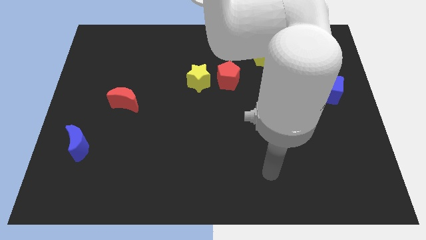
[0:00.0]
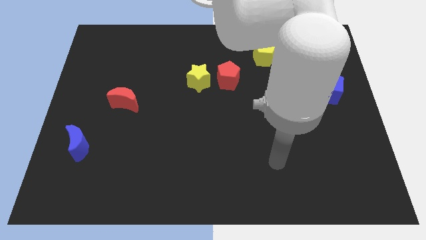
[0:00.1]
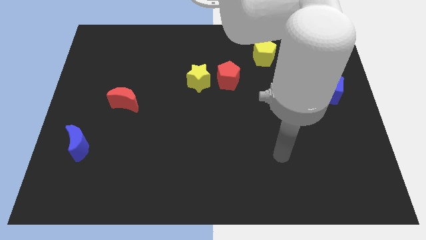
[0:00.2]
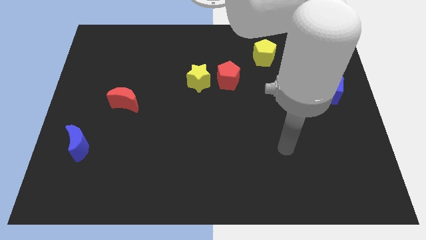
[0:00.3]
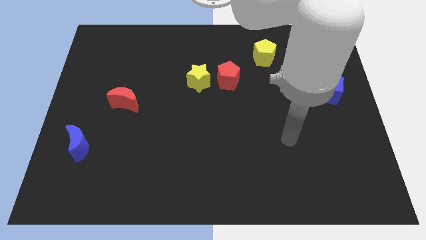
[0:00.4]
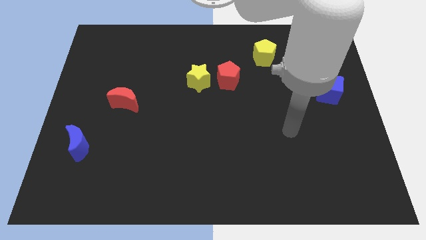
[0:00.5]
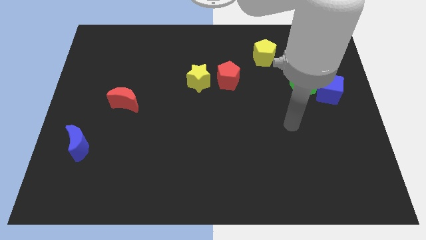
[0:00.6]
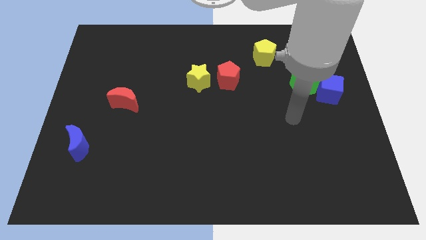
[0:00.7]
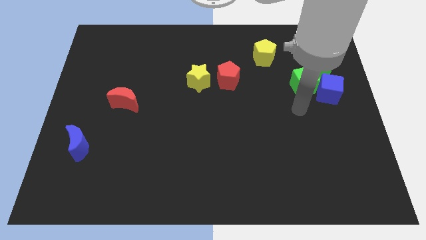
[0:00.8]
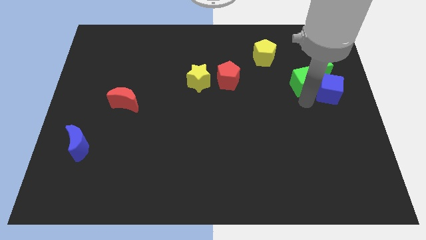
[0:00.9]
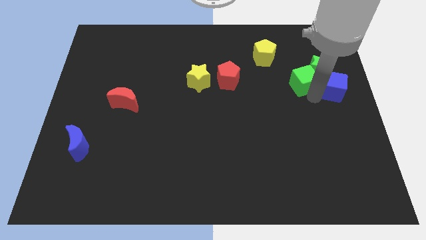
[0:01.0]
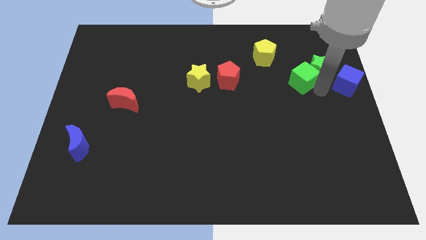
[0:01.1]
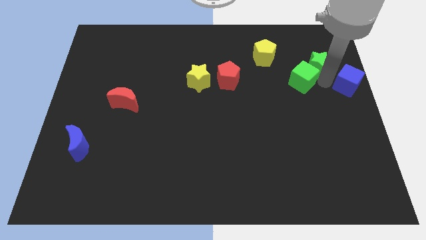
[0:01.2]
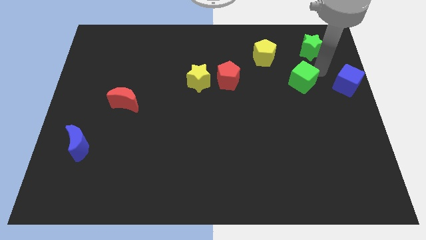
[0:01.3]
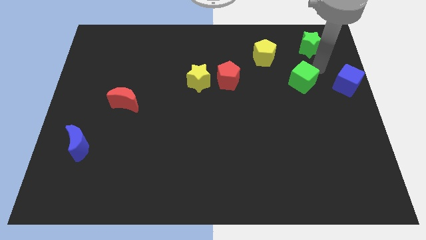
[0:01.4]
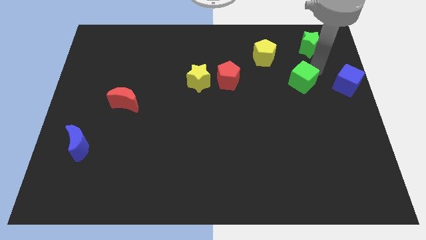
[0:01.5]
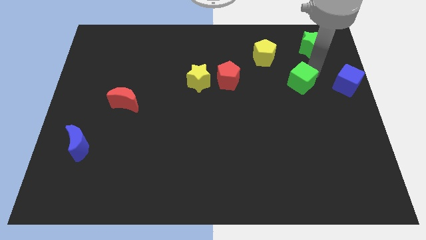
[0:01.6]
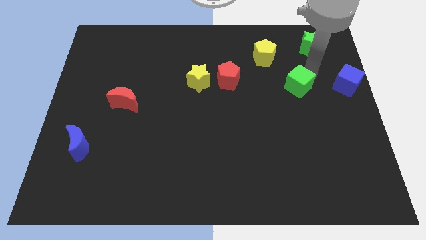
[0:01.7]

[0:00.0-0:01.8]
separate the green cube from the green star and blue cube

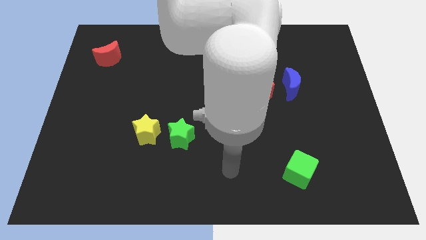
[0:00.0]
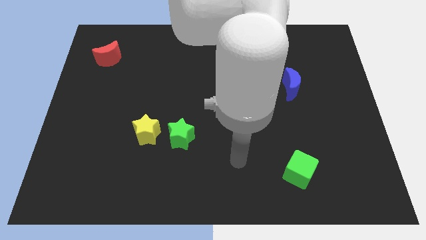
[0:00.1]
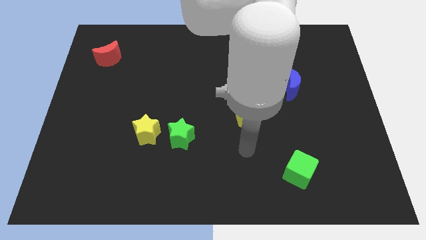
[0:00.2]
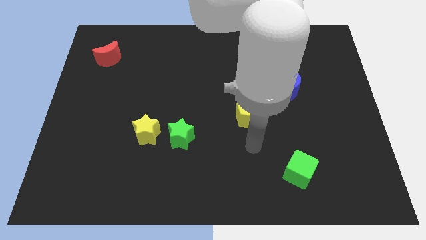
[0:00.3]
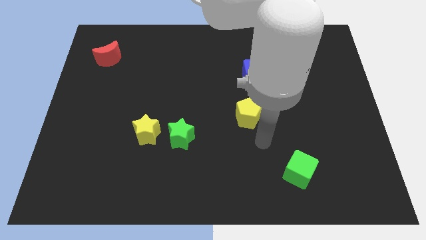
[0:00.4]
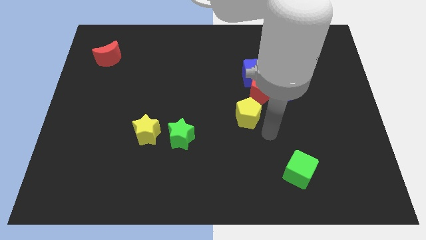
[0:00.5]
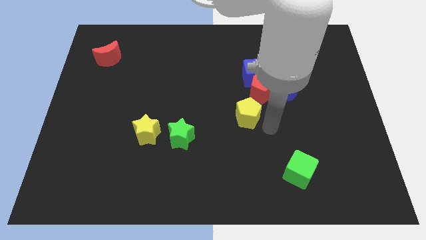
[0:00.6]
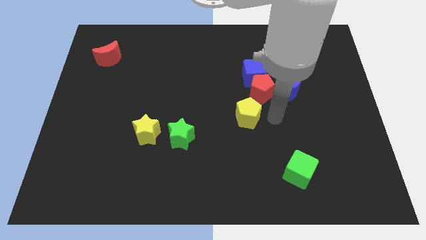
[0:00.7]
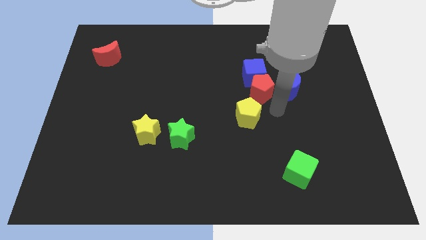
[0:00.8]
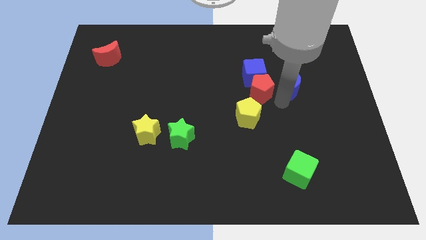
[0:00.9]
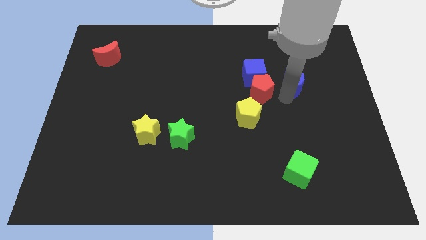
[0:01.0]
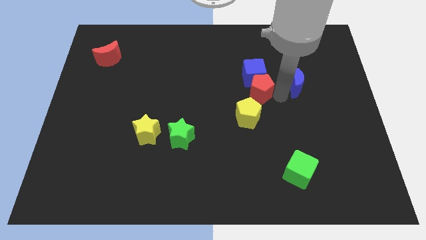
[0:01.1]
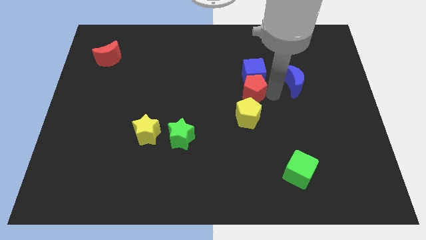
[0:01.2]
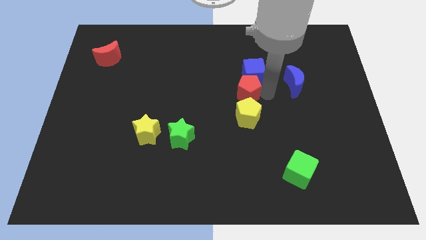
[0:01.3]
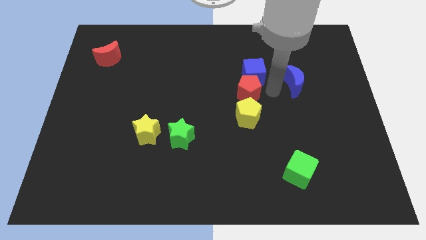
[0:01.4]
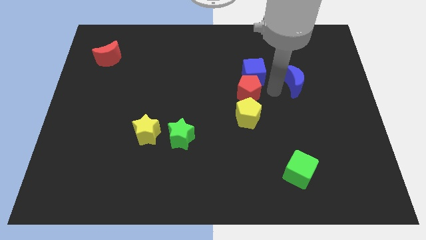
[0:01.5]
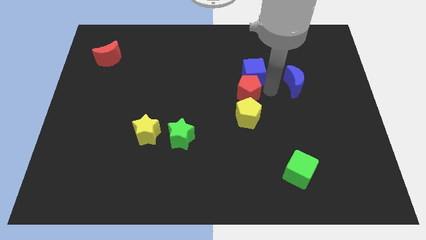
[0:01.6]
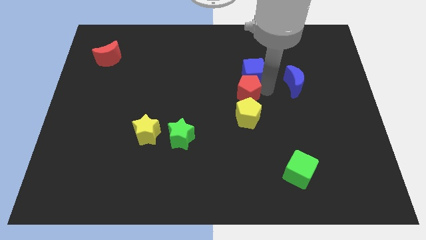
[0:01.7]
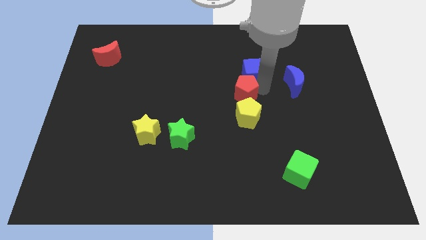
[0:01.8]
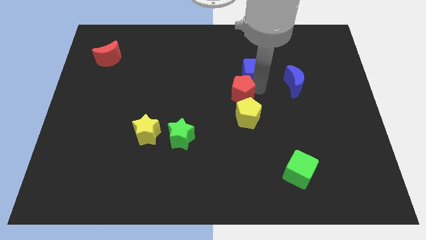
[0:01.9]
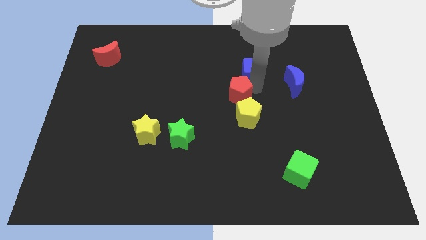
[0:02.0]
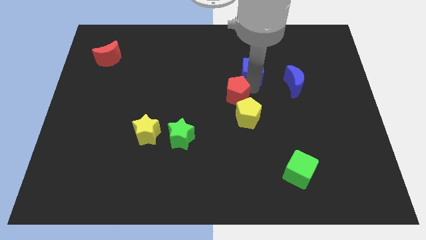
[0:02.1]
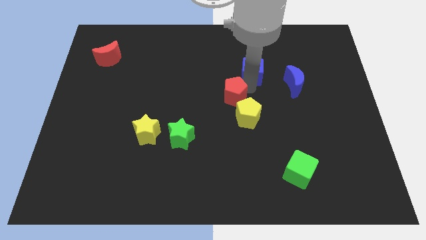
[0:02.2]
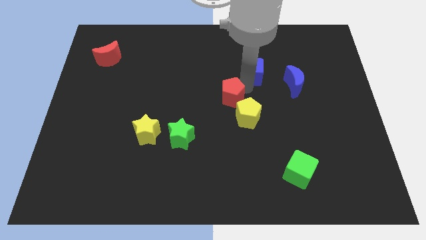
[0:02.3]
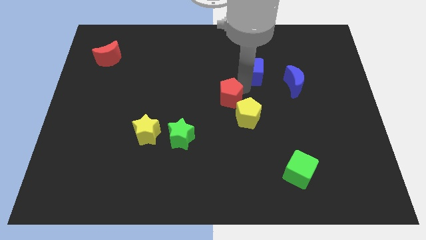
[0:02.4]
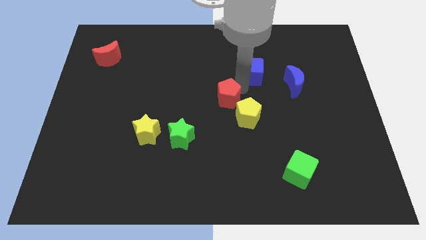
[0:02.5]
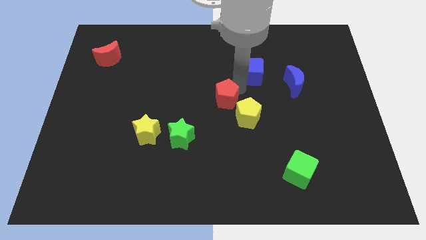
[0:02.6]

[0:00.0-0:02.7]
move the red pentagon away from the group

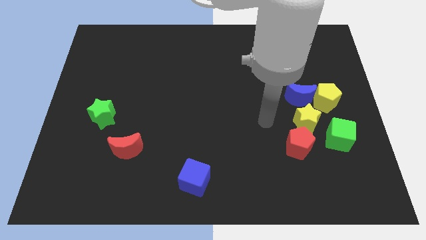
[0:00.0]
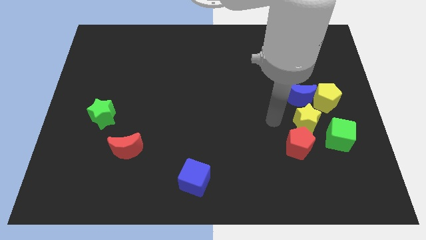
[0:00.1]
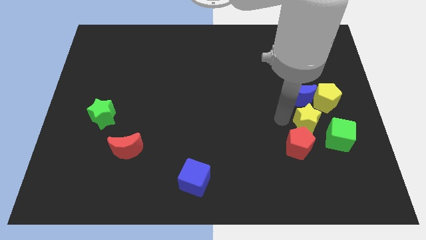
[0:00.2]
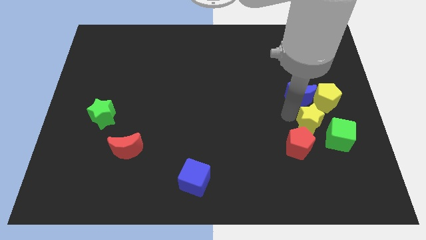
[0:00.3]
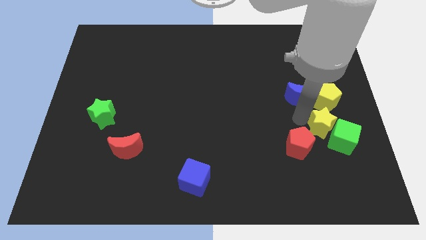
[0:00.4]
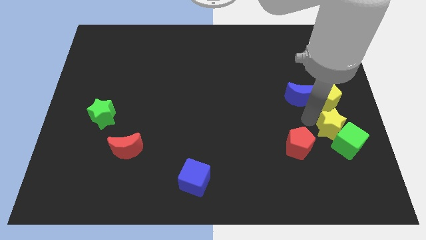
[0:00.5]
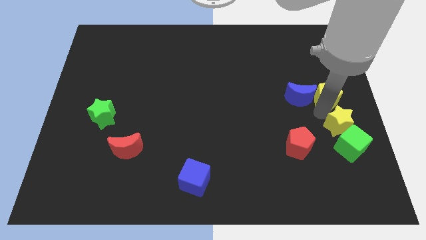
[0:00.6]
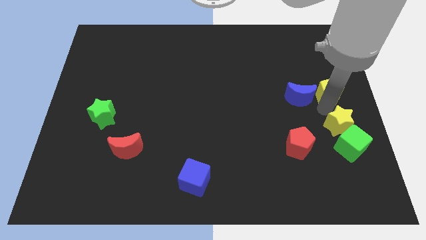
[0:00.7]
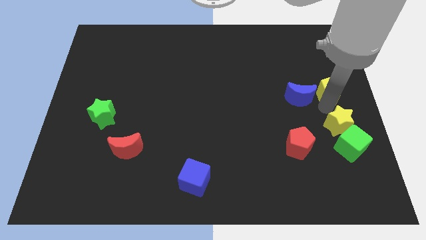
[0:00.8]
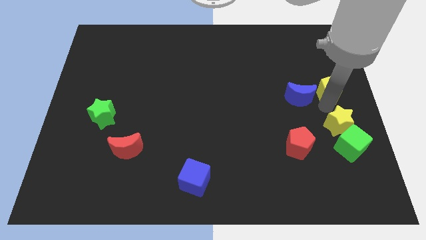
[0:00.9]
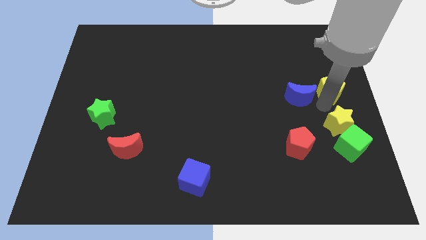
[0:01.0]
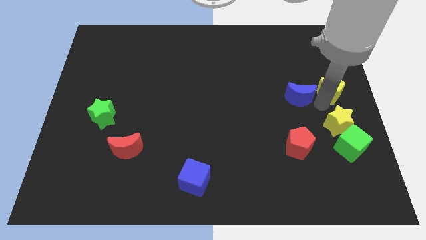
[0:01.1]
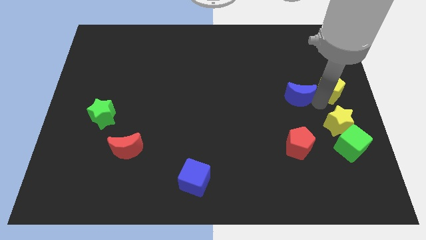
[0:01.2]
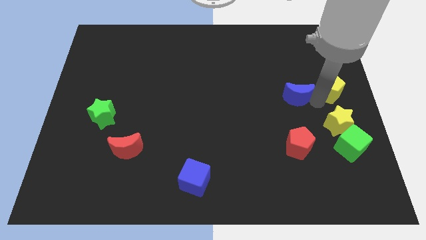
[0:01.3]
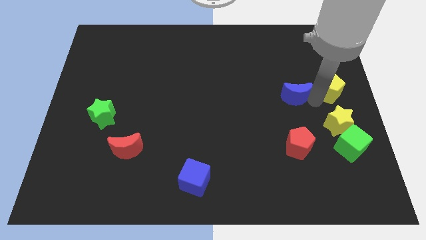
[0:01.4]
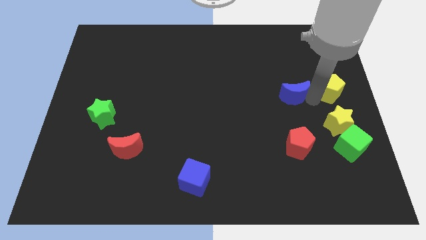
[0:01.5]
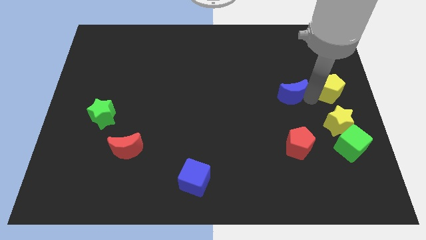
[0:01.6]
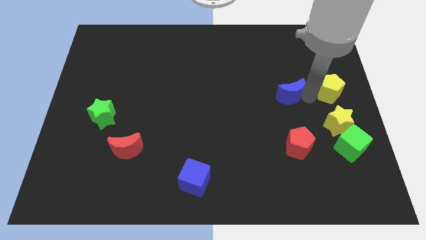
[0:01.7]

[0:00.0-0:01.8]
separate the blue moon from the yellow pentagon and yellow star

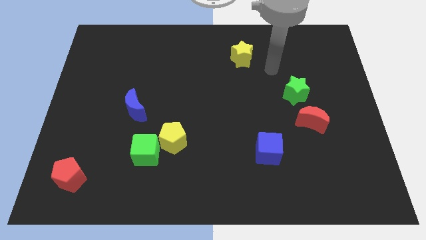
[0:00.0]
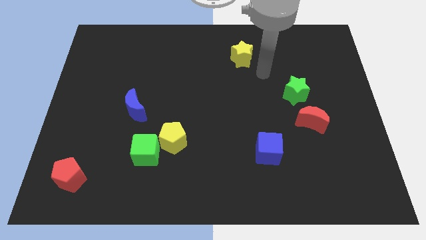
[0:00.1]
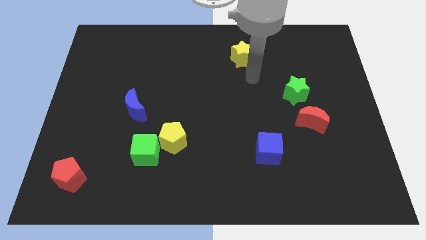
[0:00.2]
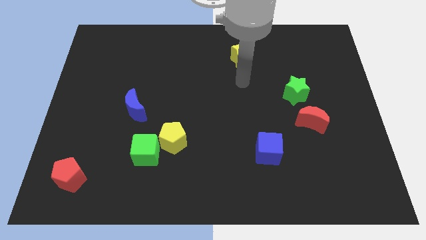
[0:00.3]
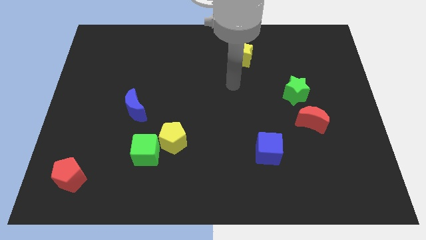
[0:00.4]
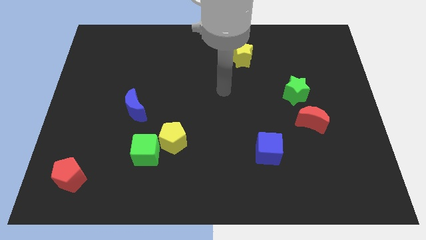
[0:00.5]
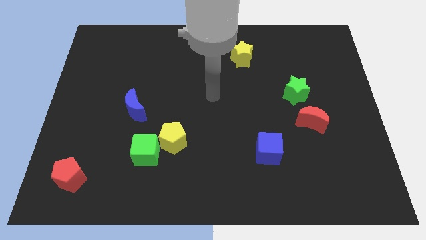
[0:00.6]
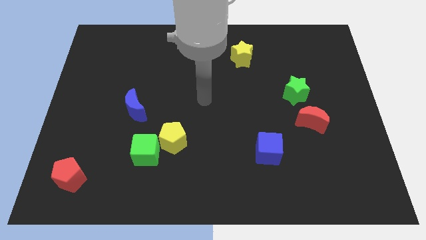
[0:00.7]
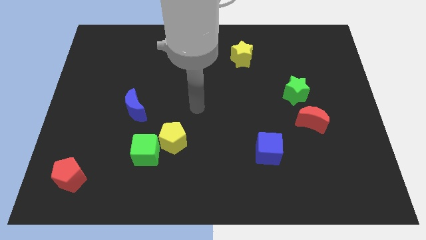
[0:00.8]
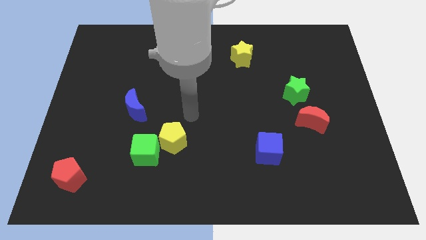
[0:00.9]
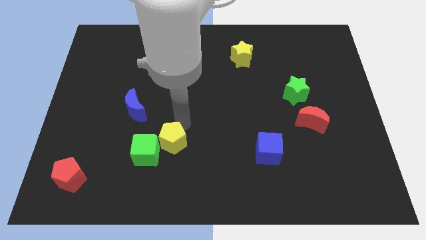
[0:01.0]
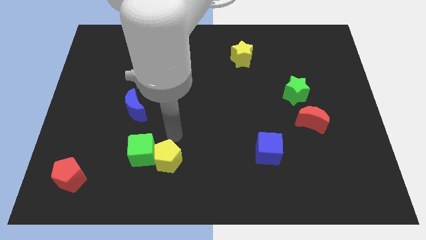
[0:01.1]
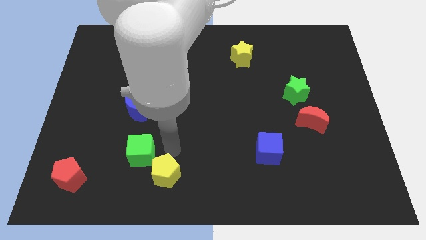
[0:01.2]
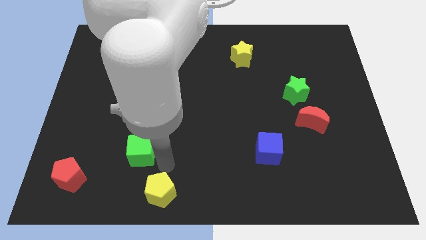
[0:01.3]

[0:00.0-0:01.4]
move the green cube away from the yellow pentagon

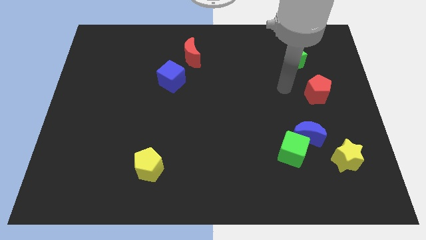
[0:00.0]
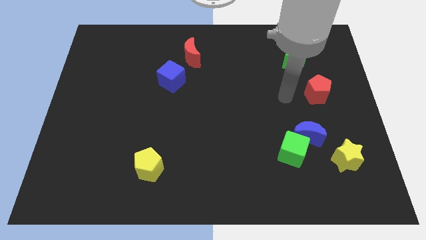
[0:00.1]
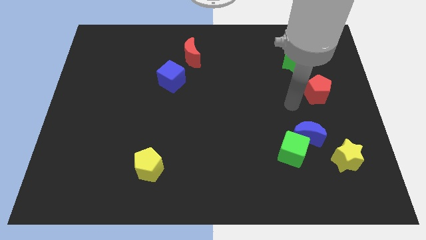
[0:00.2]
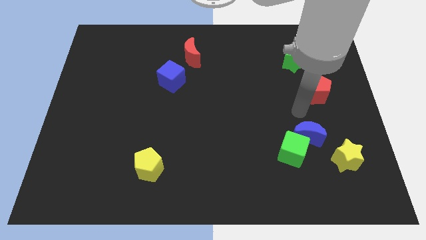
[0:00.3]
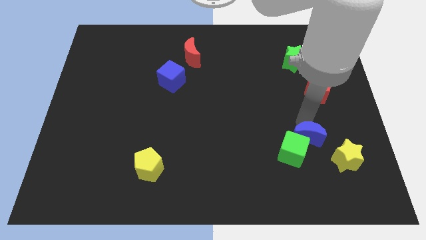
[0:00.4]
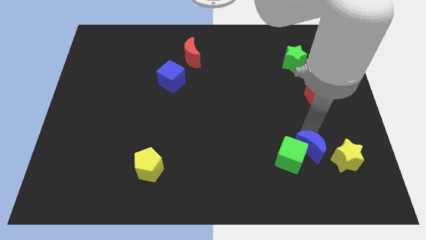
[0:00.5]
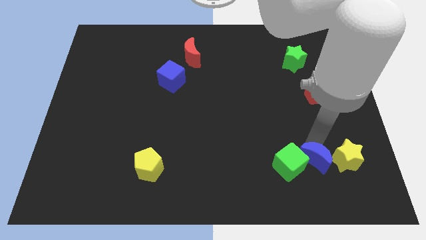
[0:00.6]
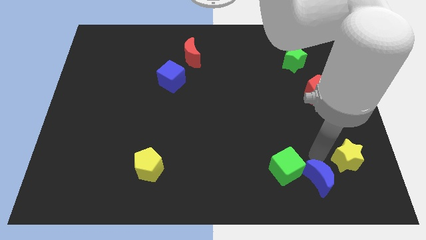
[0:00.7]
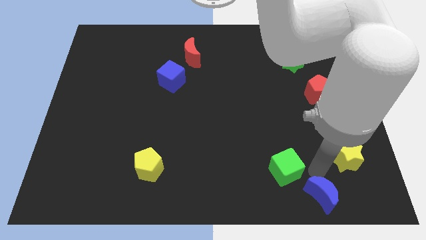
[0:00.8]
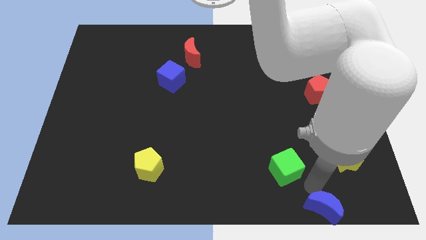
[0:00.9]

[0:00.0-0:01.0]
separate the green cube from the blue moon

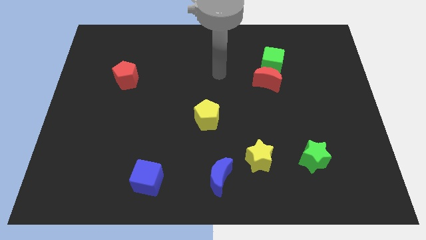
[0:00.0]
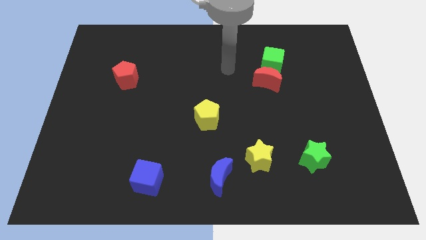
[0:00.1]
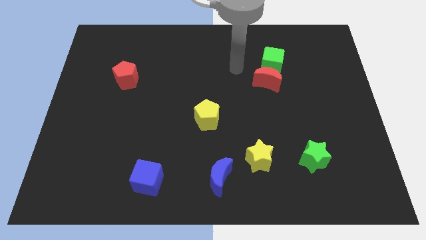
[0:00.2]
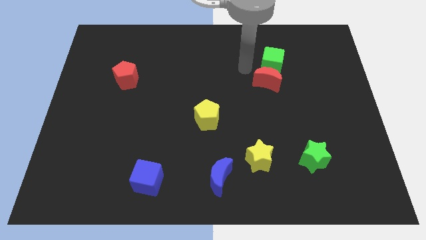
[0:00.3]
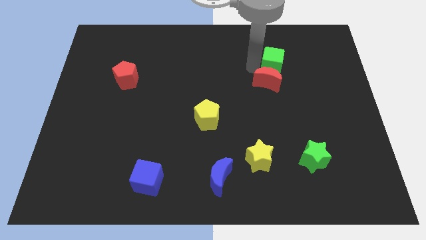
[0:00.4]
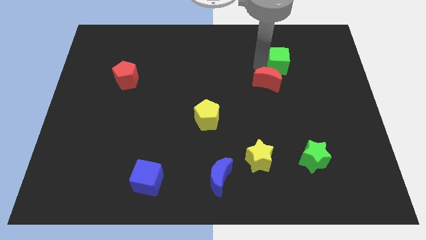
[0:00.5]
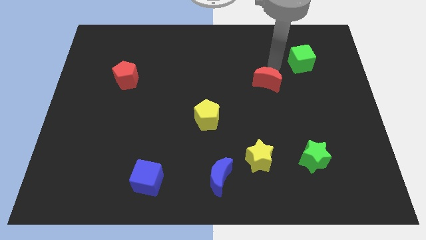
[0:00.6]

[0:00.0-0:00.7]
separate the red moon from the green cube
